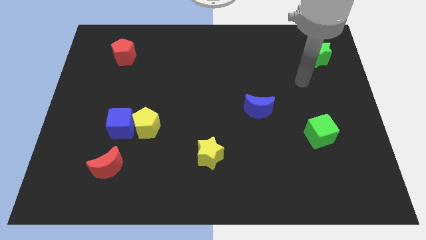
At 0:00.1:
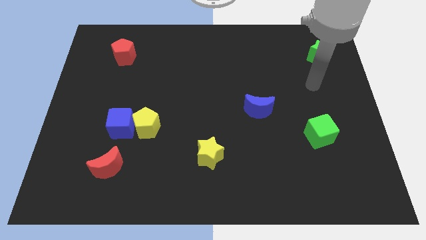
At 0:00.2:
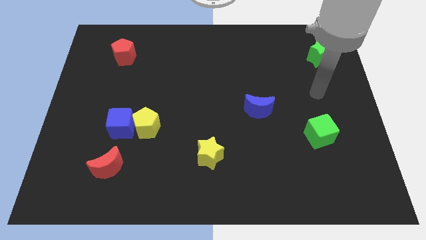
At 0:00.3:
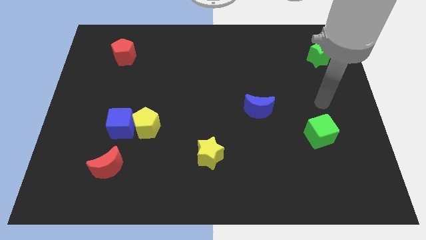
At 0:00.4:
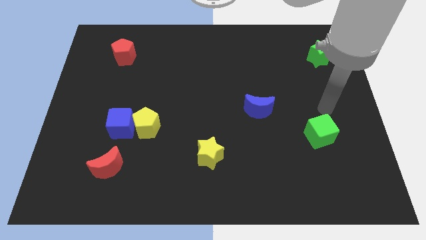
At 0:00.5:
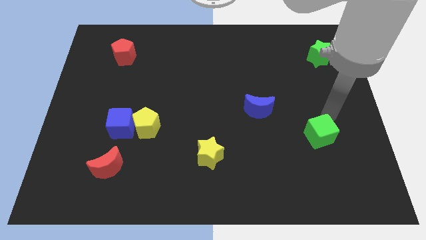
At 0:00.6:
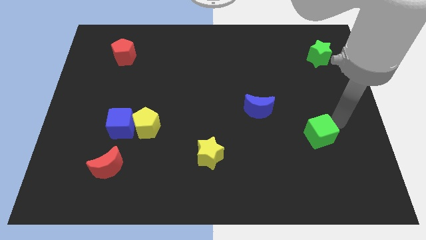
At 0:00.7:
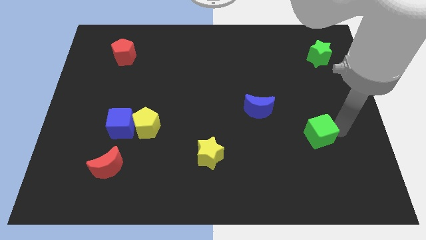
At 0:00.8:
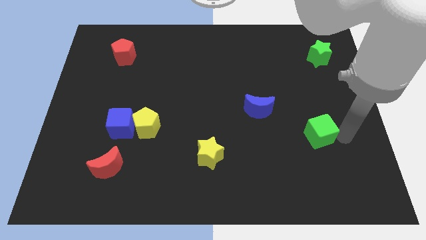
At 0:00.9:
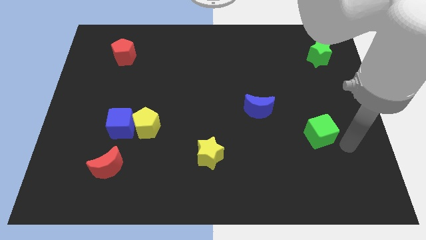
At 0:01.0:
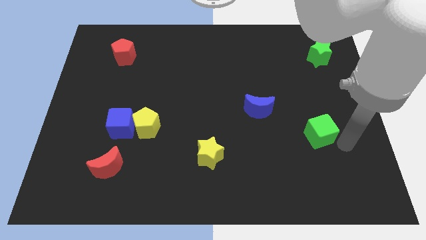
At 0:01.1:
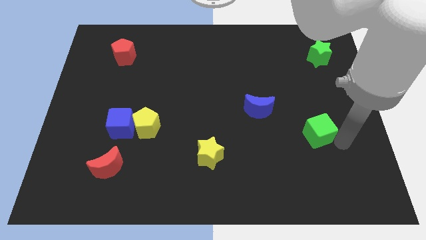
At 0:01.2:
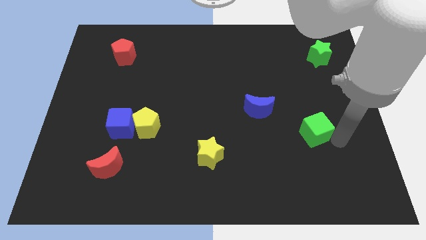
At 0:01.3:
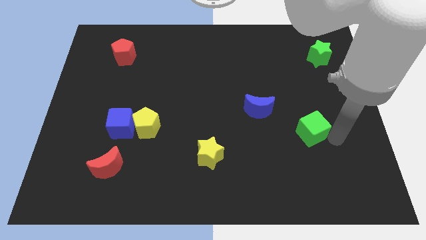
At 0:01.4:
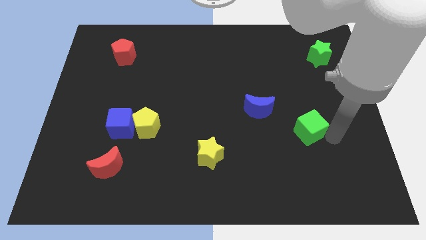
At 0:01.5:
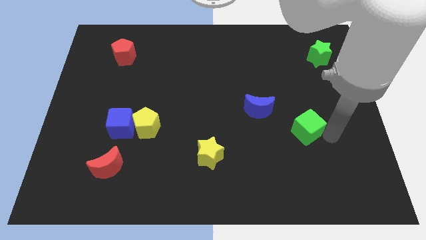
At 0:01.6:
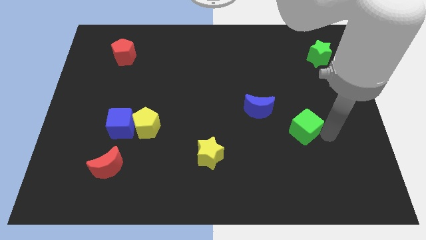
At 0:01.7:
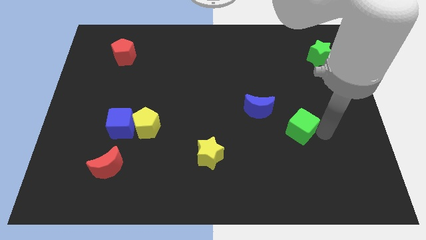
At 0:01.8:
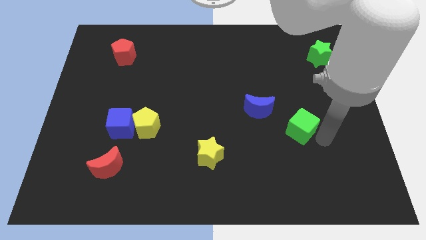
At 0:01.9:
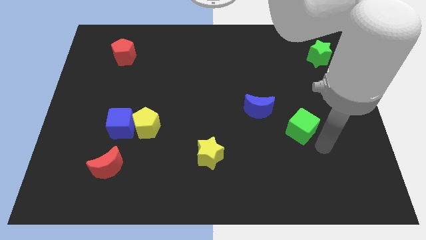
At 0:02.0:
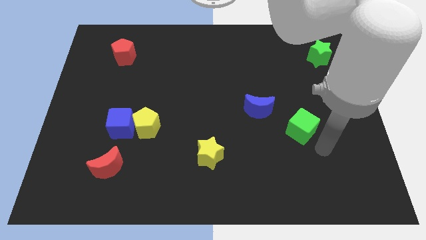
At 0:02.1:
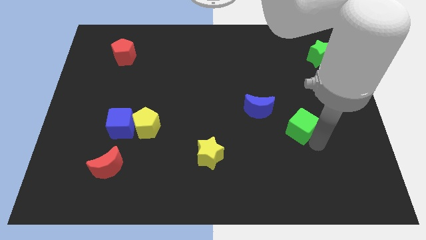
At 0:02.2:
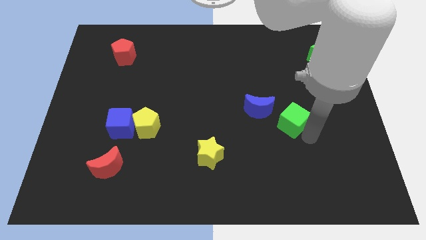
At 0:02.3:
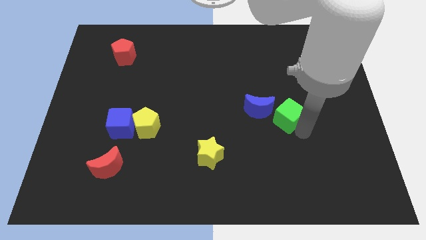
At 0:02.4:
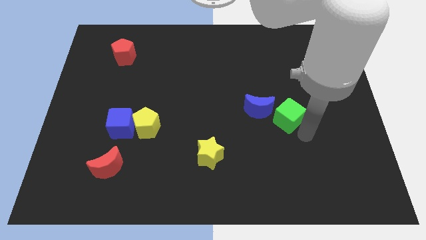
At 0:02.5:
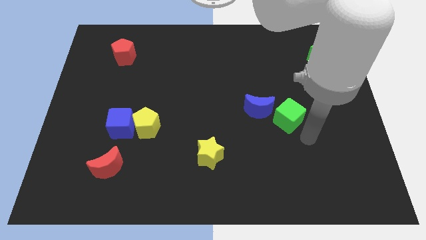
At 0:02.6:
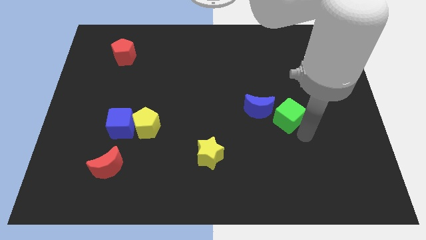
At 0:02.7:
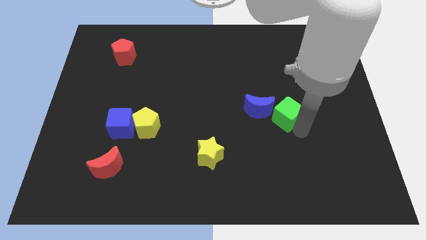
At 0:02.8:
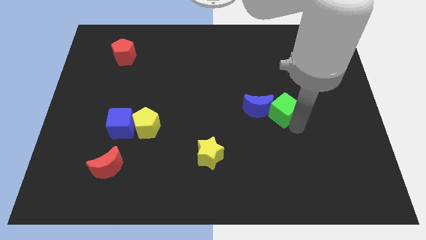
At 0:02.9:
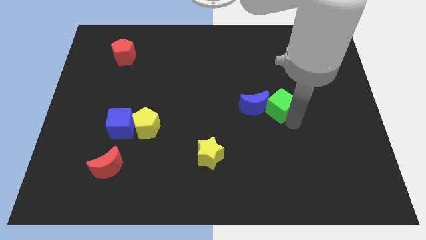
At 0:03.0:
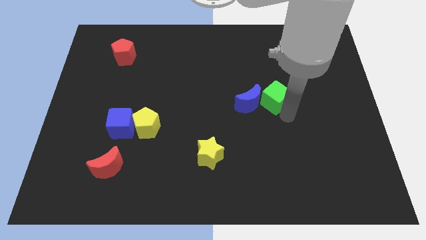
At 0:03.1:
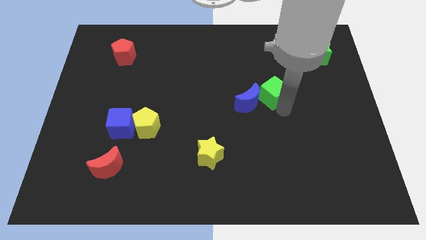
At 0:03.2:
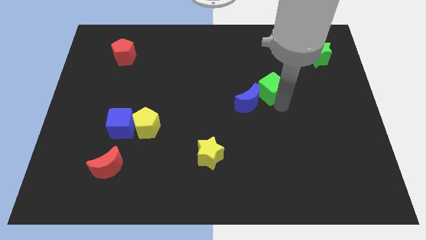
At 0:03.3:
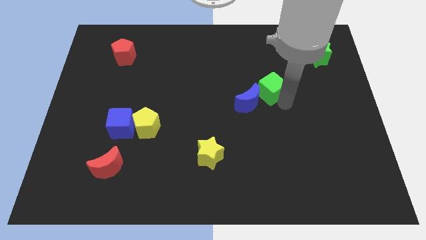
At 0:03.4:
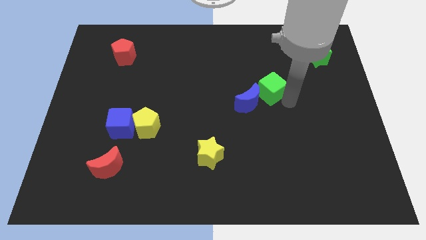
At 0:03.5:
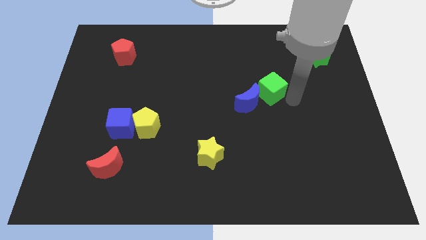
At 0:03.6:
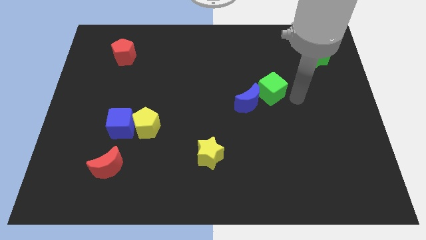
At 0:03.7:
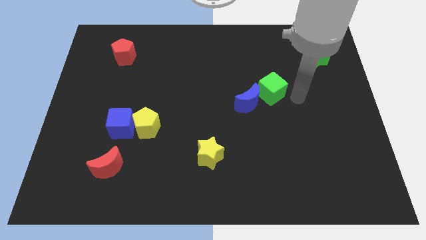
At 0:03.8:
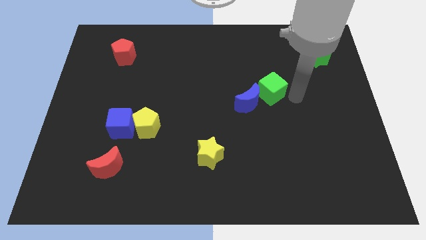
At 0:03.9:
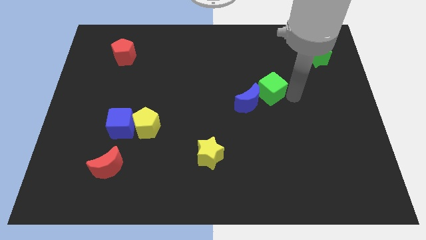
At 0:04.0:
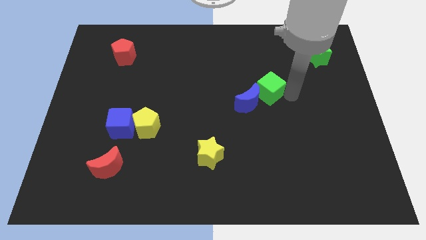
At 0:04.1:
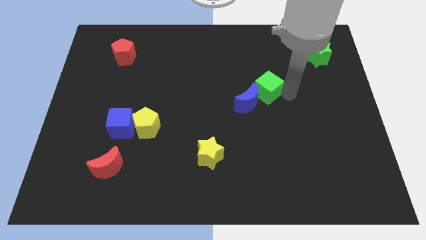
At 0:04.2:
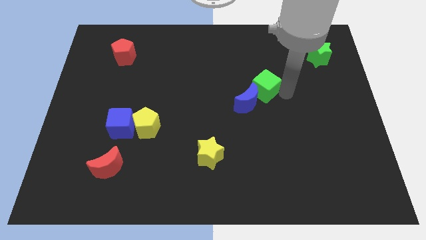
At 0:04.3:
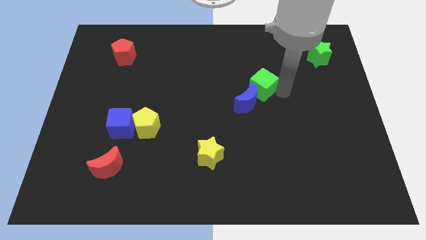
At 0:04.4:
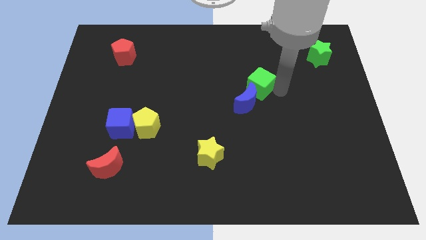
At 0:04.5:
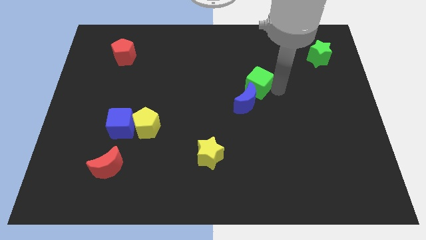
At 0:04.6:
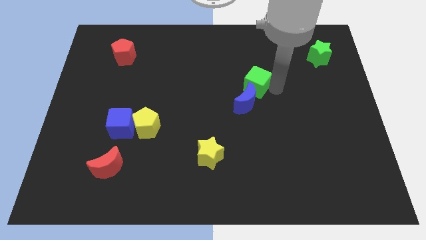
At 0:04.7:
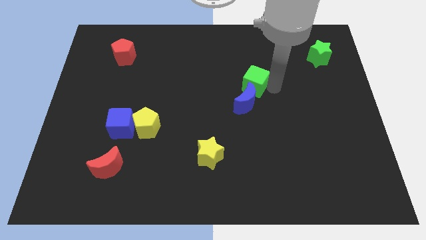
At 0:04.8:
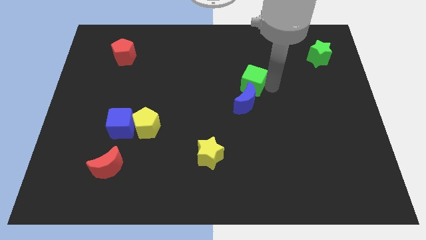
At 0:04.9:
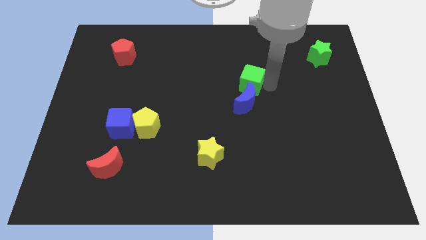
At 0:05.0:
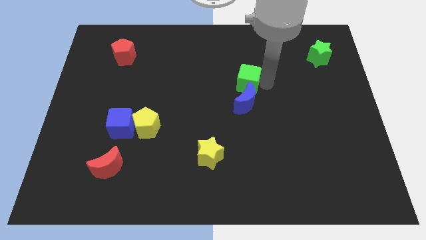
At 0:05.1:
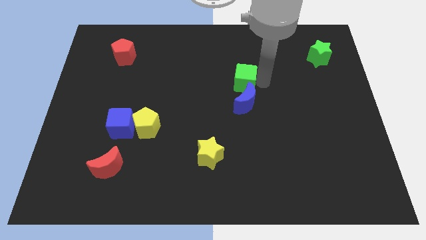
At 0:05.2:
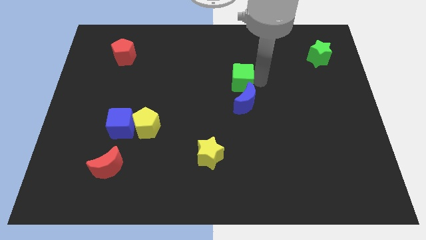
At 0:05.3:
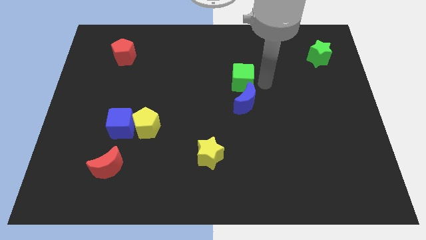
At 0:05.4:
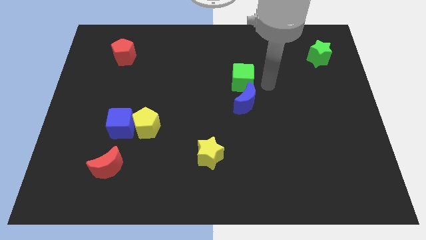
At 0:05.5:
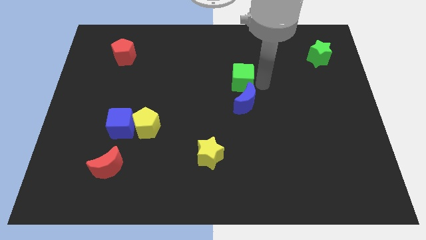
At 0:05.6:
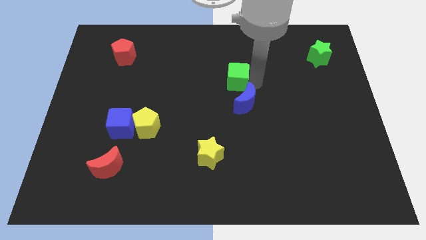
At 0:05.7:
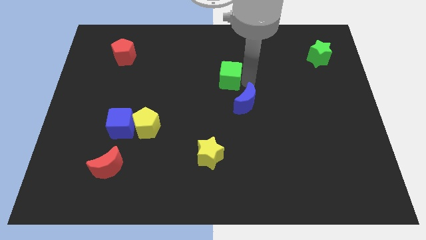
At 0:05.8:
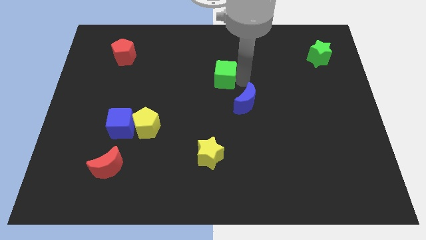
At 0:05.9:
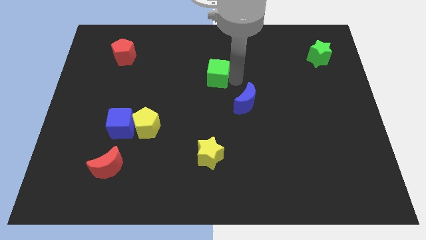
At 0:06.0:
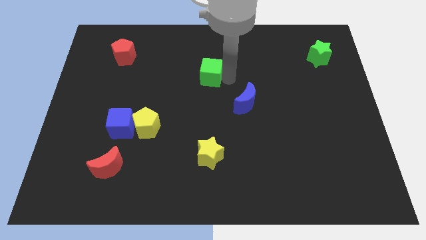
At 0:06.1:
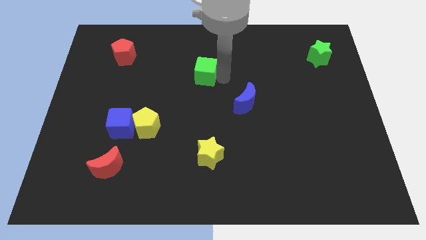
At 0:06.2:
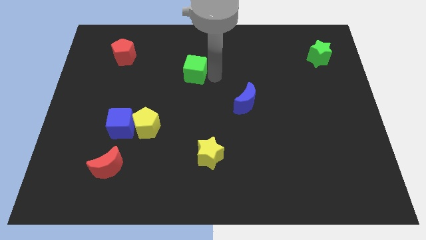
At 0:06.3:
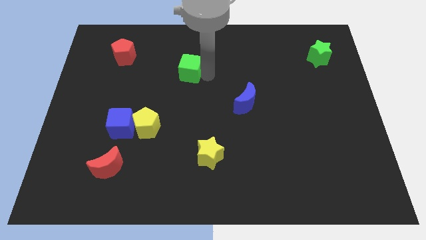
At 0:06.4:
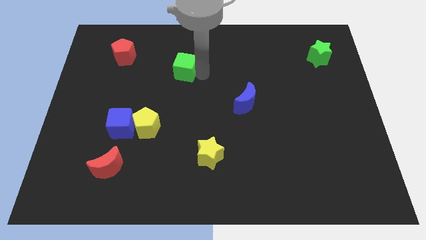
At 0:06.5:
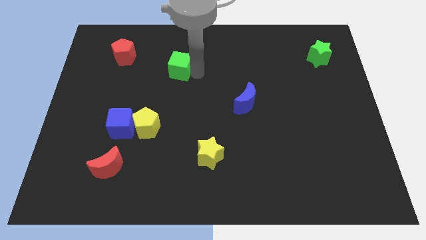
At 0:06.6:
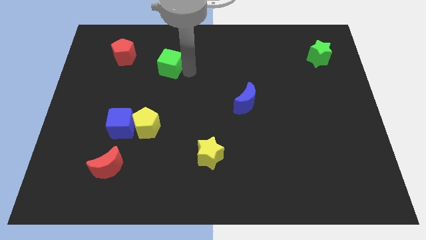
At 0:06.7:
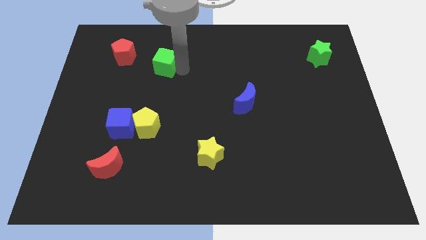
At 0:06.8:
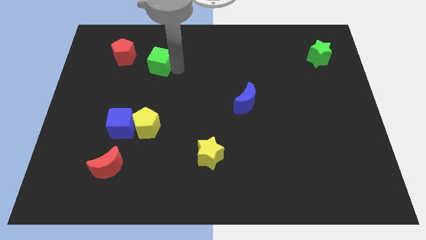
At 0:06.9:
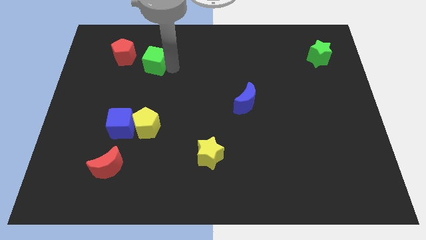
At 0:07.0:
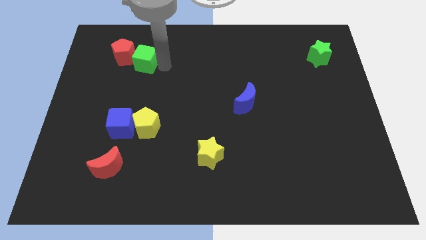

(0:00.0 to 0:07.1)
slide the green cube close to the red pentagon
